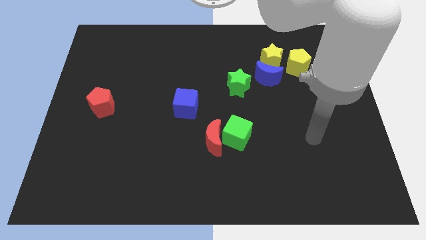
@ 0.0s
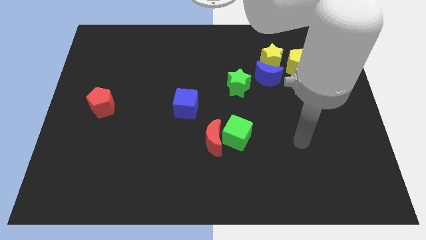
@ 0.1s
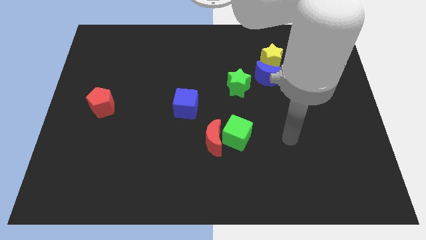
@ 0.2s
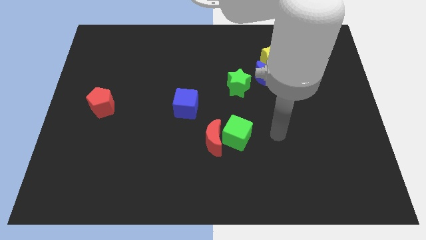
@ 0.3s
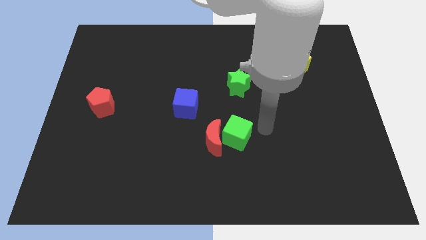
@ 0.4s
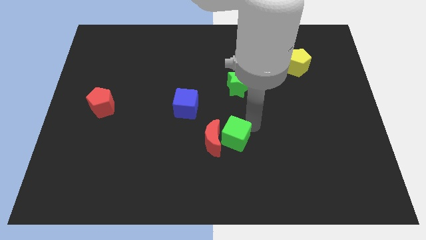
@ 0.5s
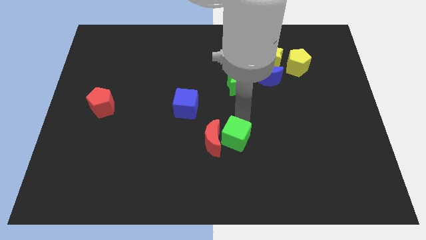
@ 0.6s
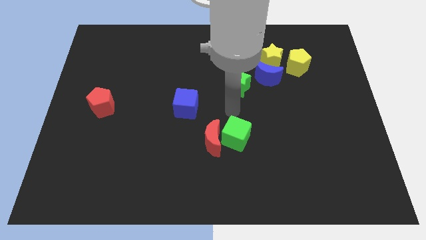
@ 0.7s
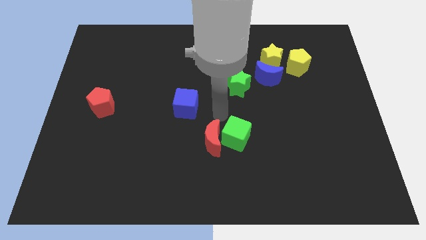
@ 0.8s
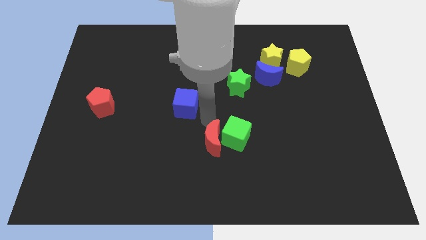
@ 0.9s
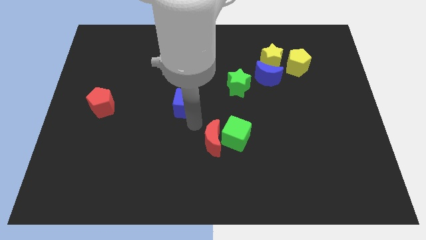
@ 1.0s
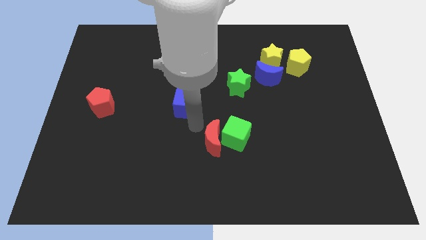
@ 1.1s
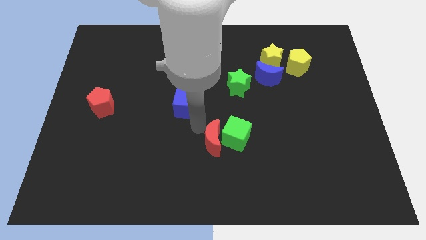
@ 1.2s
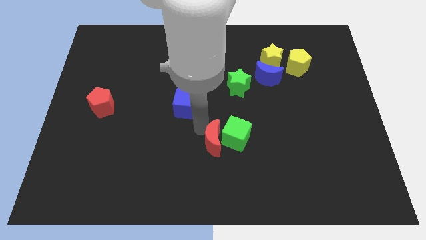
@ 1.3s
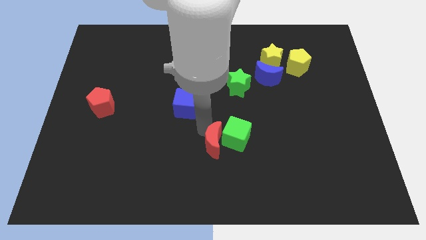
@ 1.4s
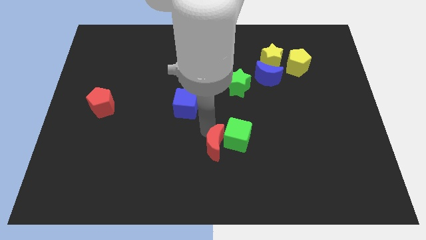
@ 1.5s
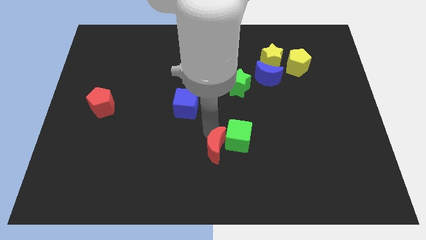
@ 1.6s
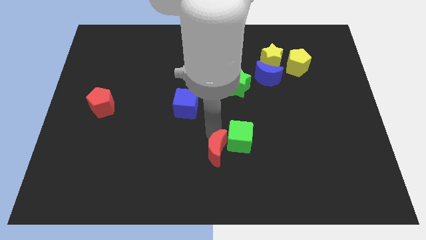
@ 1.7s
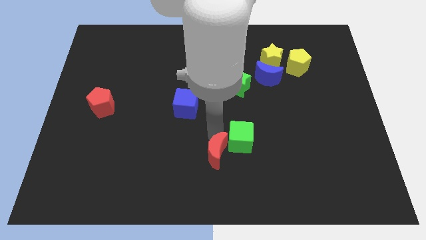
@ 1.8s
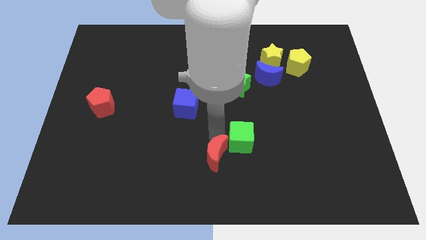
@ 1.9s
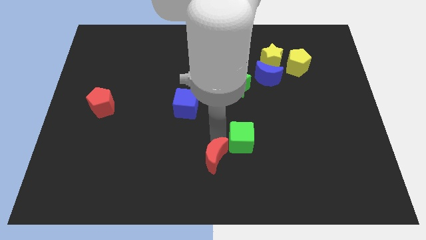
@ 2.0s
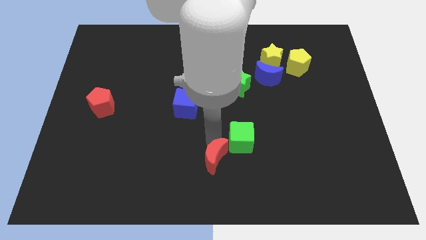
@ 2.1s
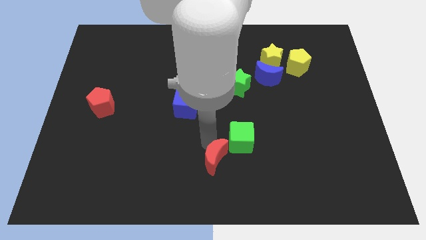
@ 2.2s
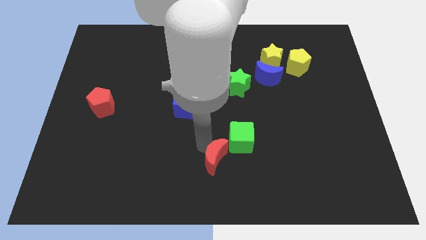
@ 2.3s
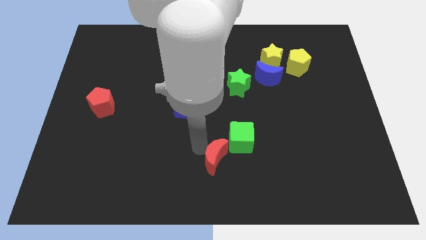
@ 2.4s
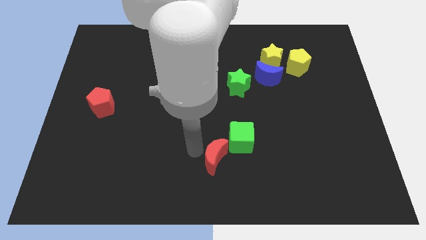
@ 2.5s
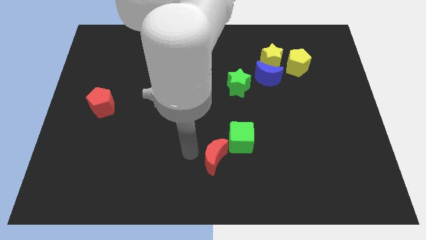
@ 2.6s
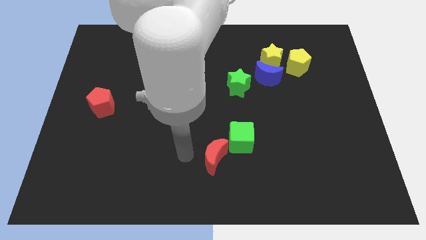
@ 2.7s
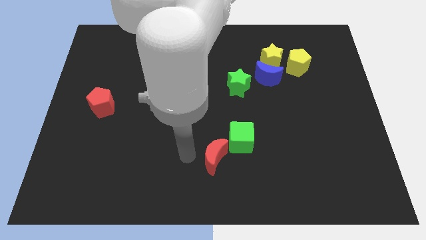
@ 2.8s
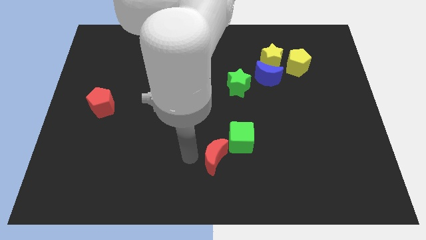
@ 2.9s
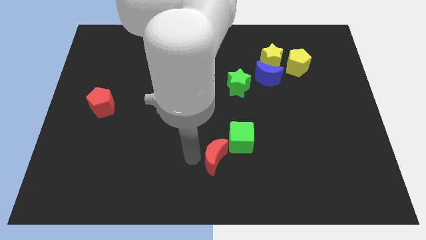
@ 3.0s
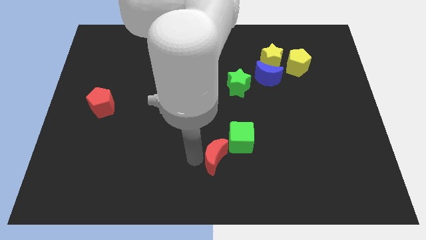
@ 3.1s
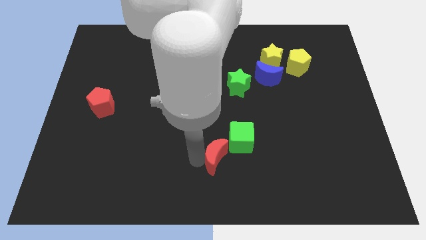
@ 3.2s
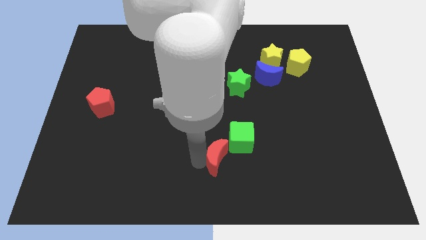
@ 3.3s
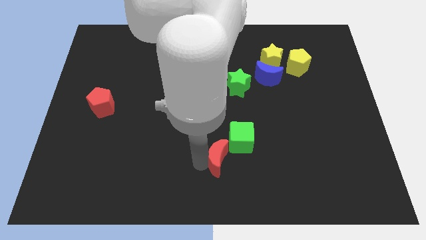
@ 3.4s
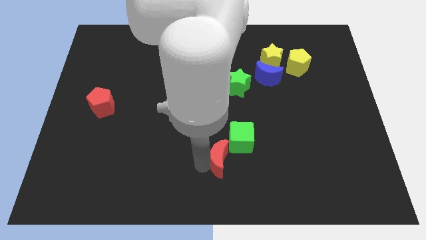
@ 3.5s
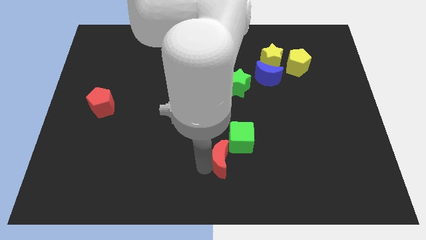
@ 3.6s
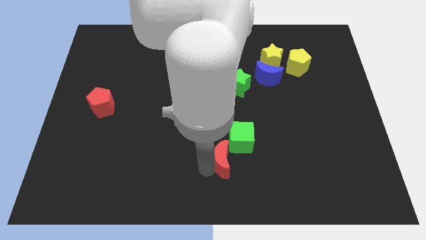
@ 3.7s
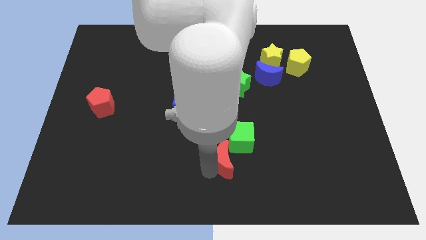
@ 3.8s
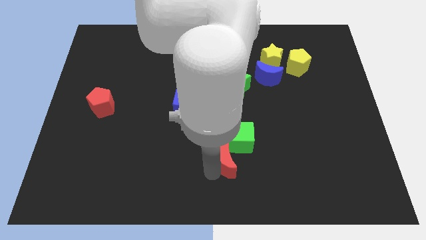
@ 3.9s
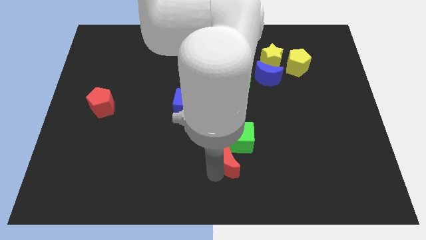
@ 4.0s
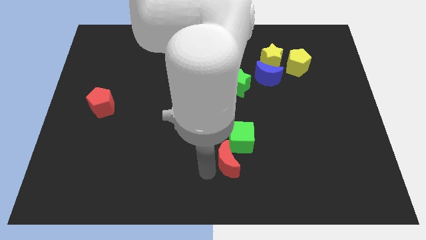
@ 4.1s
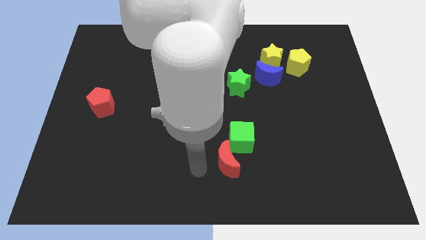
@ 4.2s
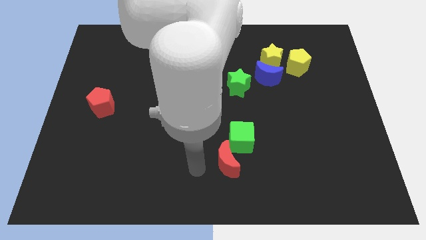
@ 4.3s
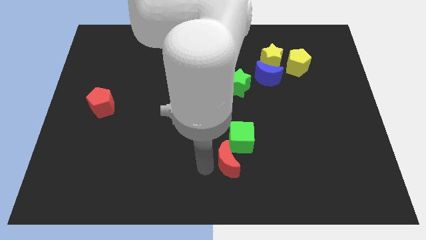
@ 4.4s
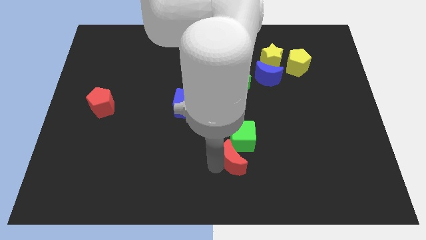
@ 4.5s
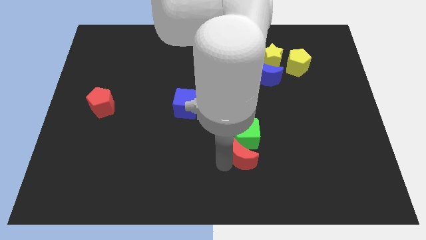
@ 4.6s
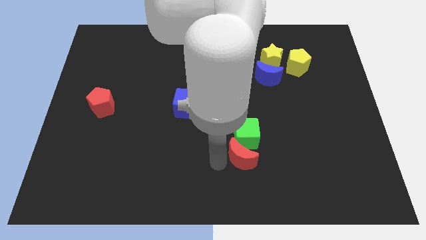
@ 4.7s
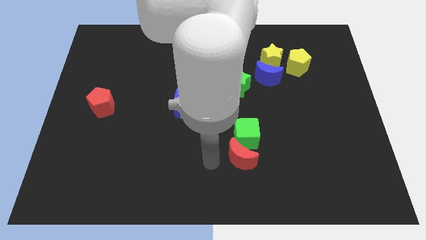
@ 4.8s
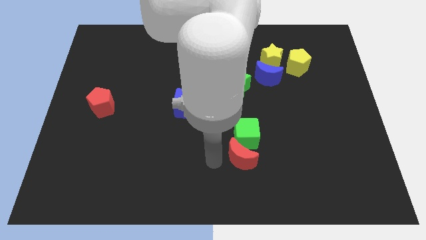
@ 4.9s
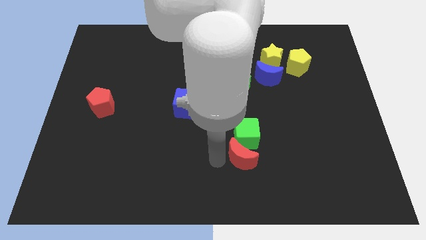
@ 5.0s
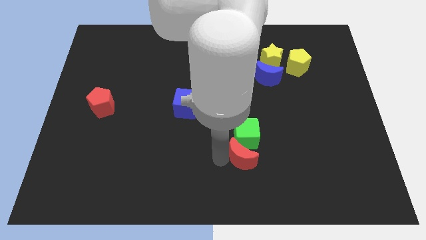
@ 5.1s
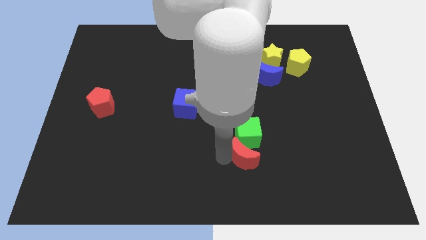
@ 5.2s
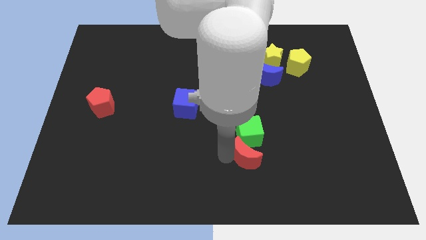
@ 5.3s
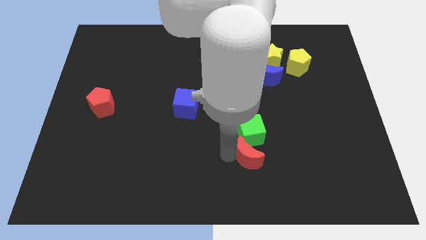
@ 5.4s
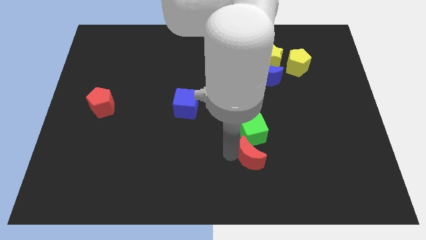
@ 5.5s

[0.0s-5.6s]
slide the red moon a bit to the right

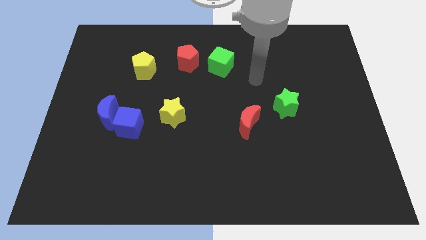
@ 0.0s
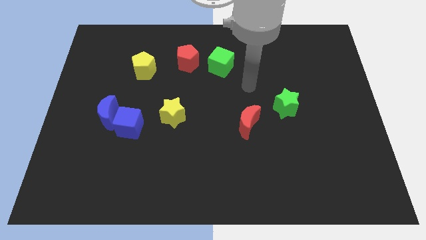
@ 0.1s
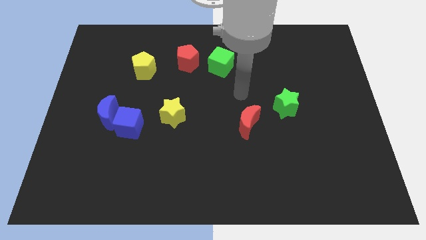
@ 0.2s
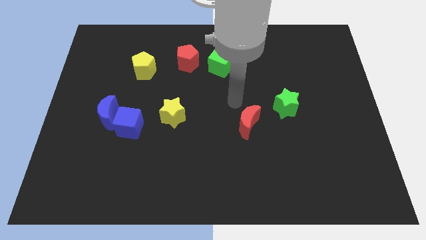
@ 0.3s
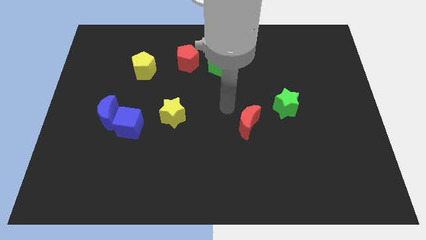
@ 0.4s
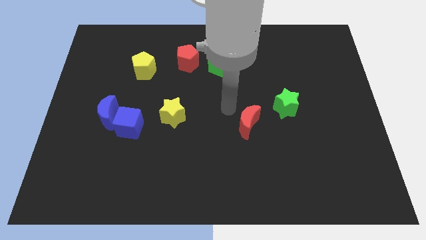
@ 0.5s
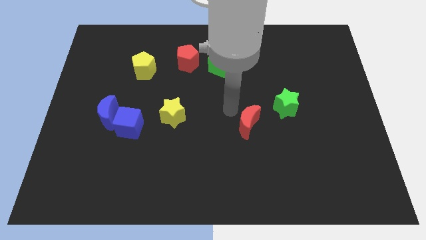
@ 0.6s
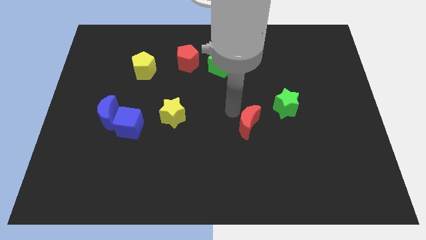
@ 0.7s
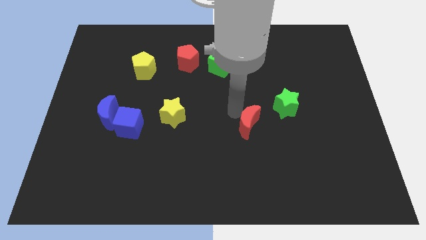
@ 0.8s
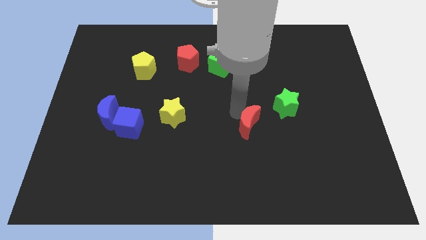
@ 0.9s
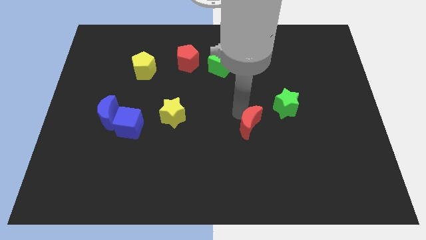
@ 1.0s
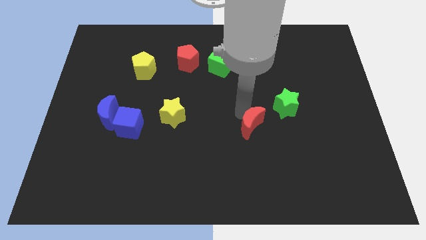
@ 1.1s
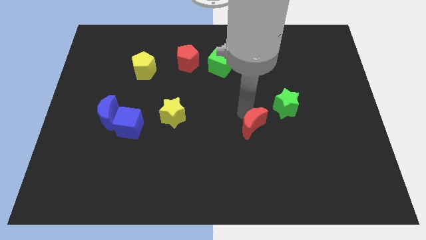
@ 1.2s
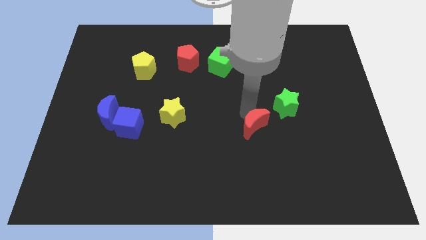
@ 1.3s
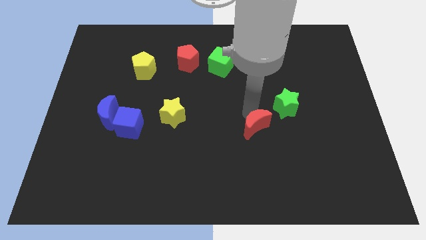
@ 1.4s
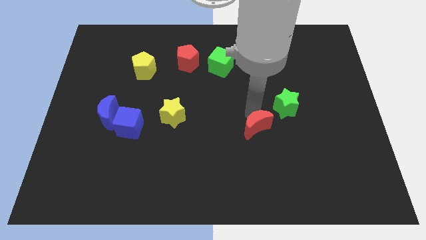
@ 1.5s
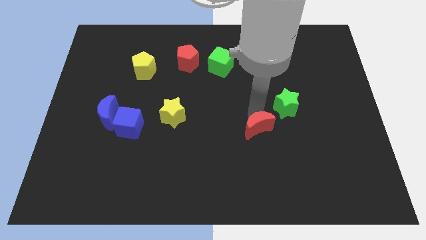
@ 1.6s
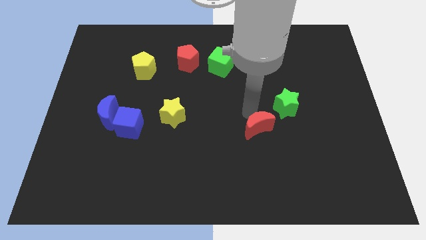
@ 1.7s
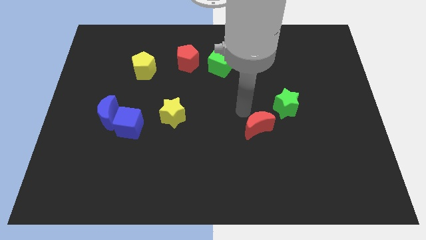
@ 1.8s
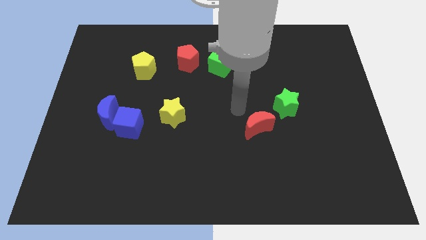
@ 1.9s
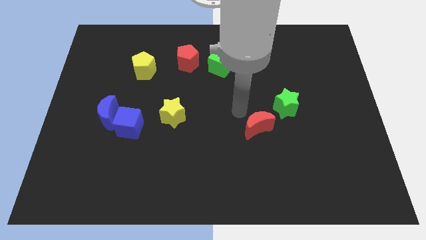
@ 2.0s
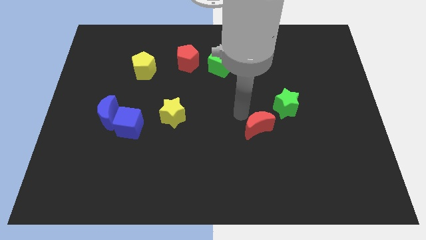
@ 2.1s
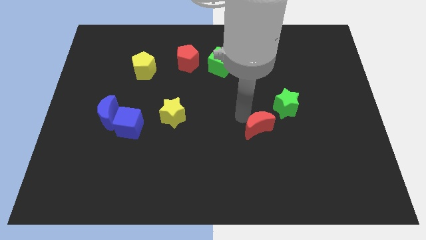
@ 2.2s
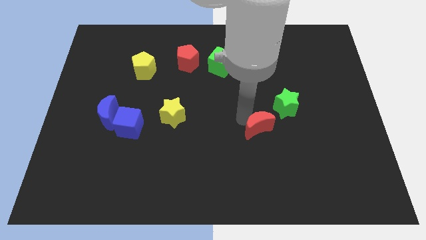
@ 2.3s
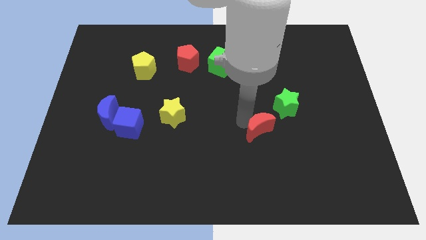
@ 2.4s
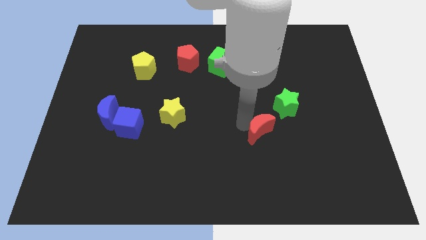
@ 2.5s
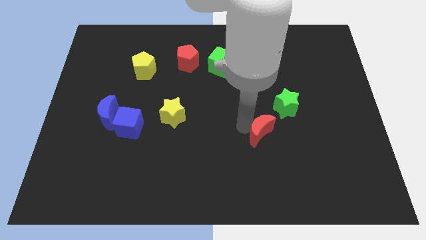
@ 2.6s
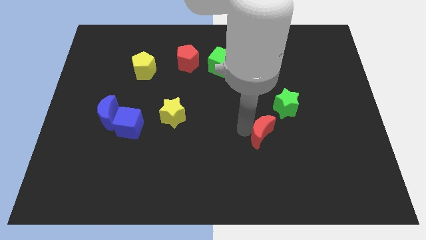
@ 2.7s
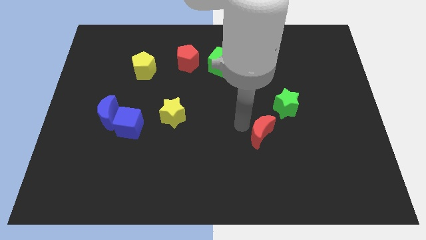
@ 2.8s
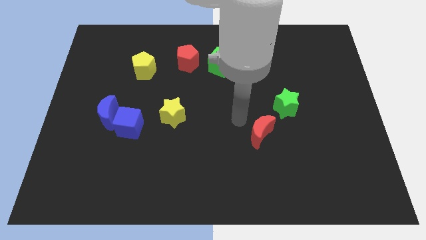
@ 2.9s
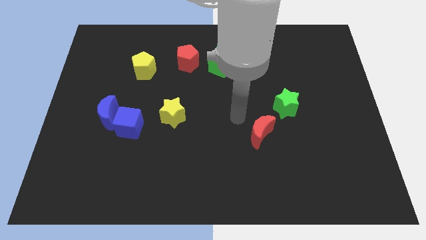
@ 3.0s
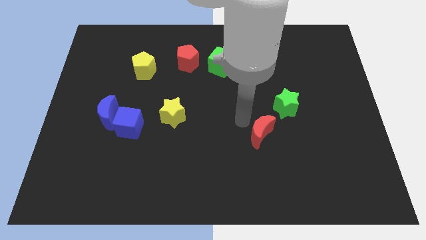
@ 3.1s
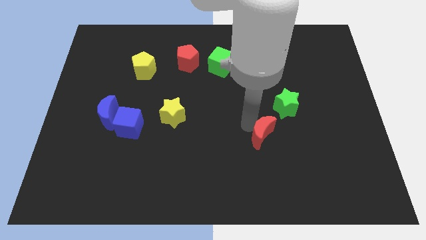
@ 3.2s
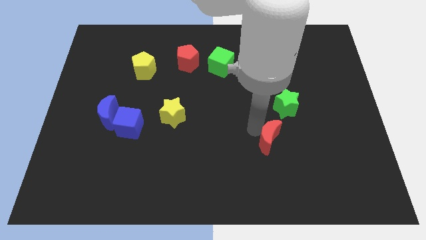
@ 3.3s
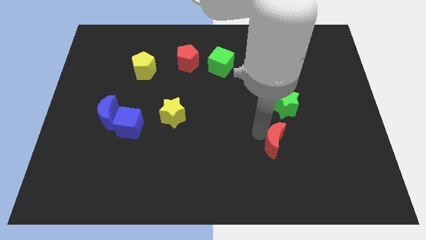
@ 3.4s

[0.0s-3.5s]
slightly slide the red moon down and to the right diagonally
